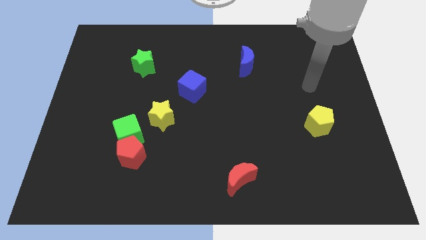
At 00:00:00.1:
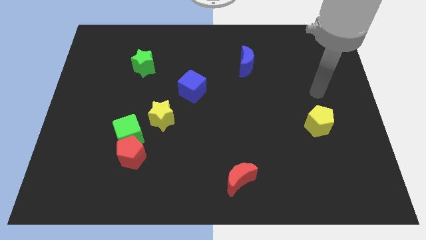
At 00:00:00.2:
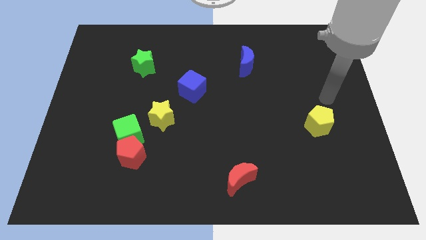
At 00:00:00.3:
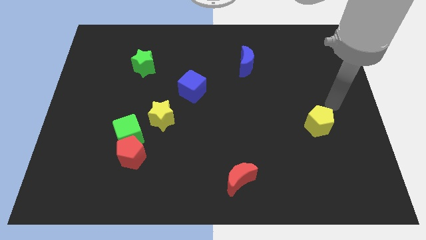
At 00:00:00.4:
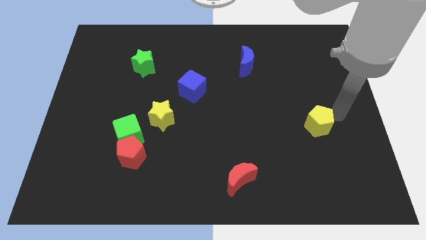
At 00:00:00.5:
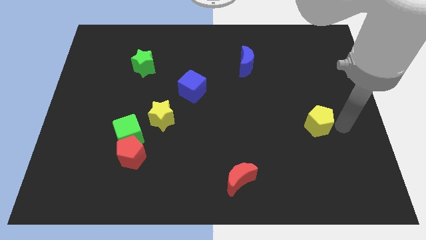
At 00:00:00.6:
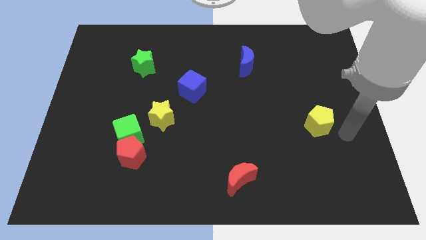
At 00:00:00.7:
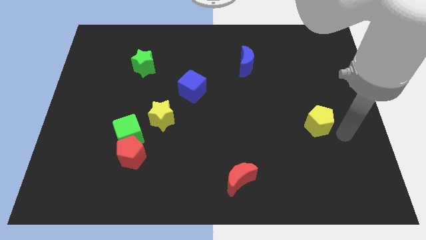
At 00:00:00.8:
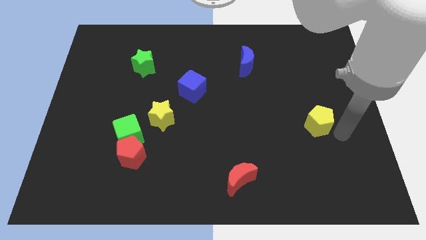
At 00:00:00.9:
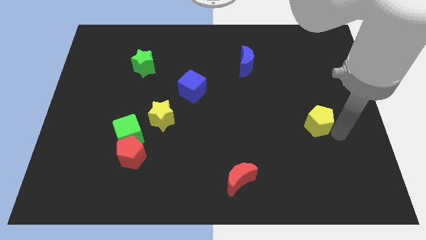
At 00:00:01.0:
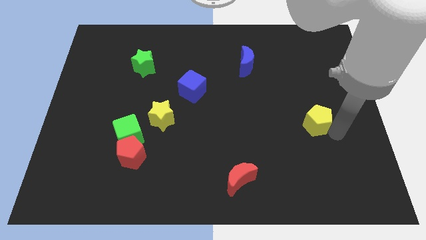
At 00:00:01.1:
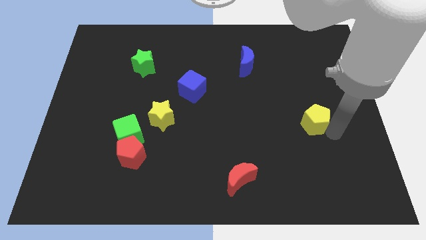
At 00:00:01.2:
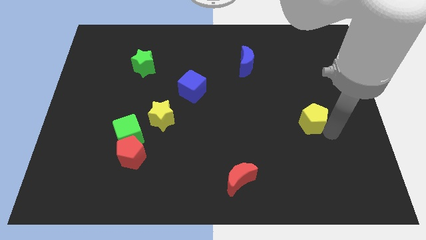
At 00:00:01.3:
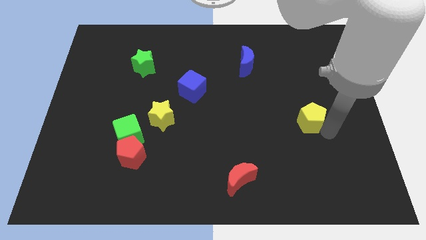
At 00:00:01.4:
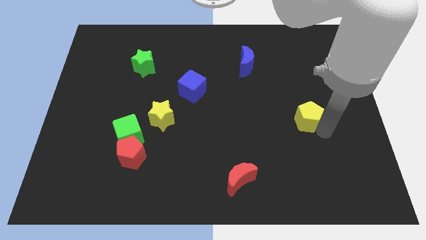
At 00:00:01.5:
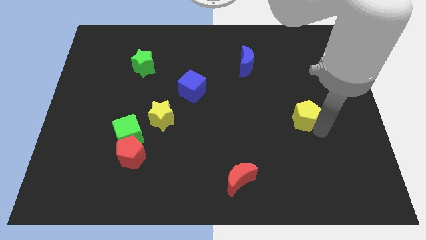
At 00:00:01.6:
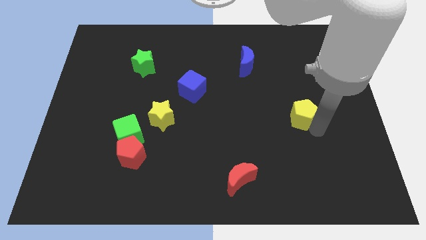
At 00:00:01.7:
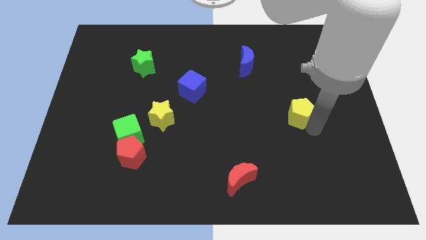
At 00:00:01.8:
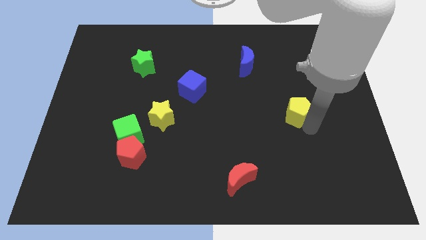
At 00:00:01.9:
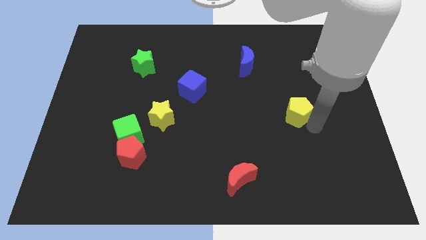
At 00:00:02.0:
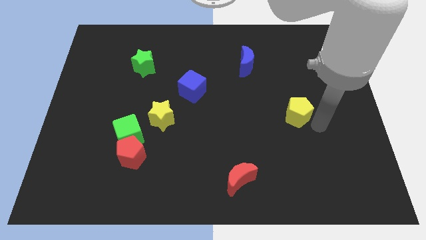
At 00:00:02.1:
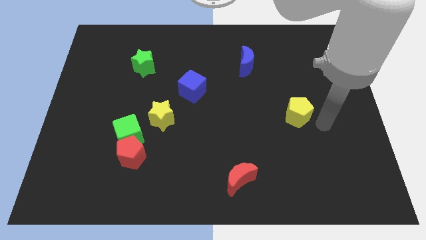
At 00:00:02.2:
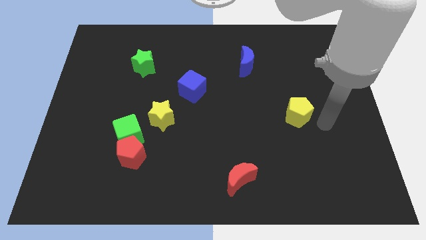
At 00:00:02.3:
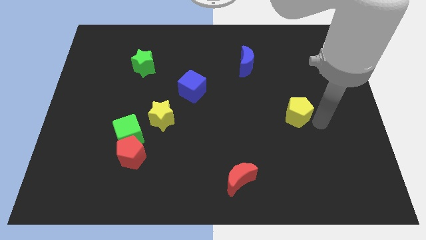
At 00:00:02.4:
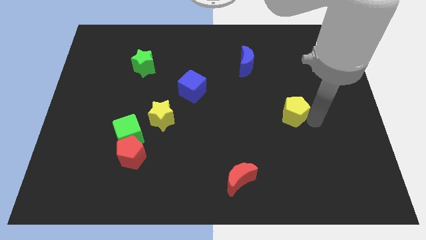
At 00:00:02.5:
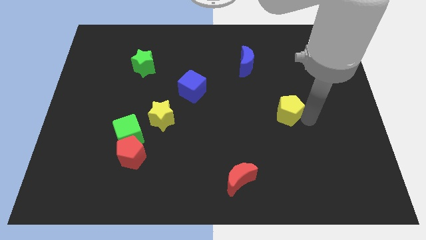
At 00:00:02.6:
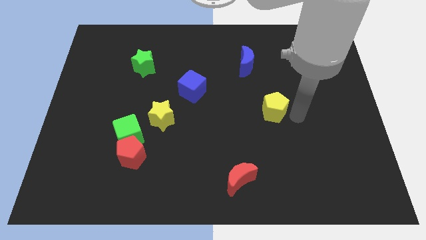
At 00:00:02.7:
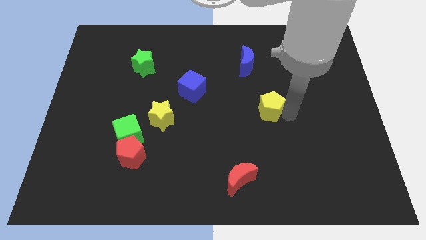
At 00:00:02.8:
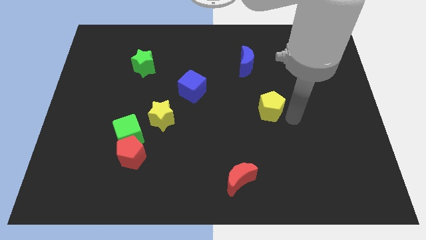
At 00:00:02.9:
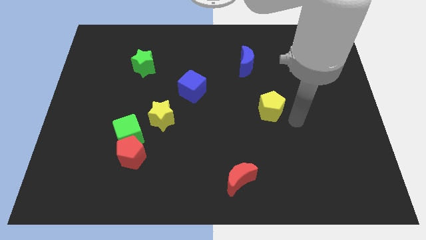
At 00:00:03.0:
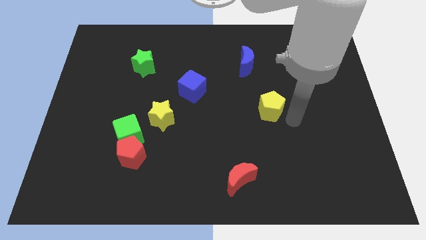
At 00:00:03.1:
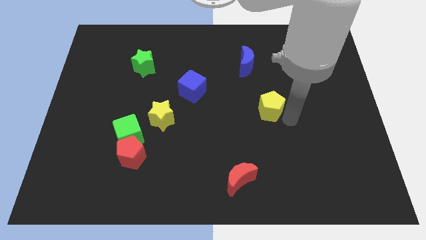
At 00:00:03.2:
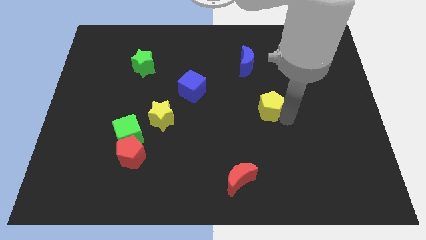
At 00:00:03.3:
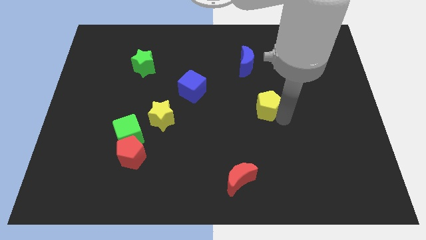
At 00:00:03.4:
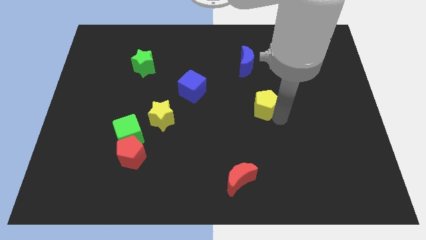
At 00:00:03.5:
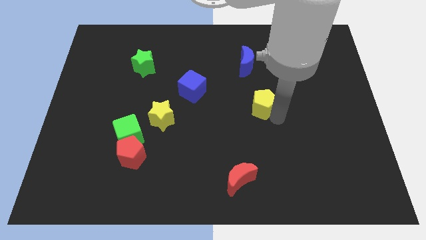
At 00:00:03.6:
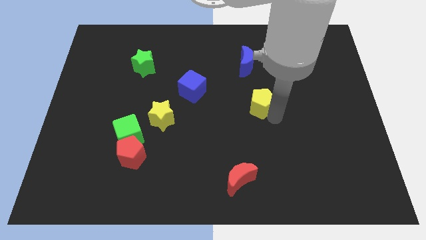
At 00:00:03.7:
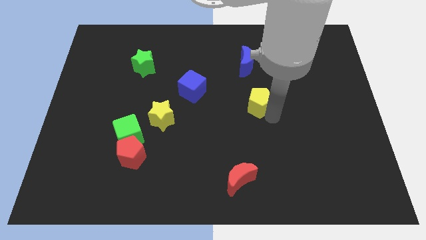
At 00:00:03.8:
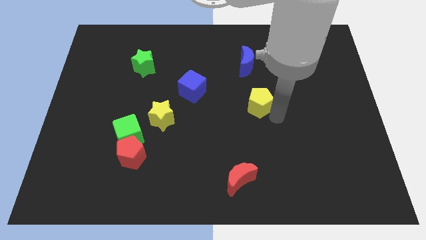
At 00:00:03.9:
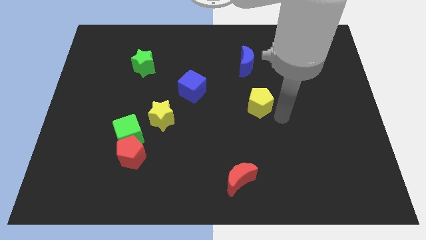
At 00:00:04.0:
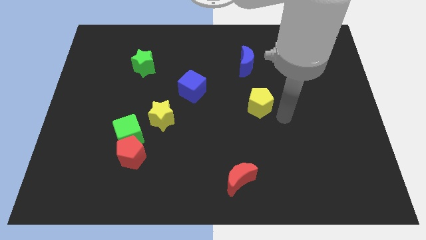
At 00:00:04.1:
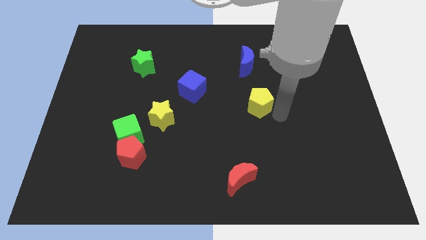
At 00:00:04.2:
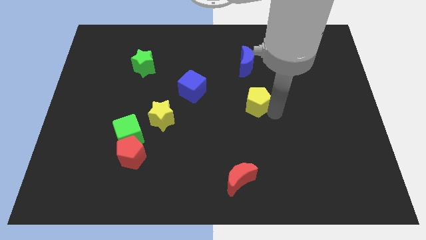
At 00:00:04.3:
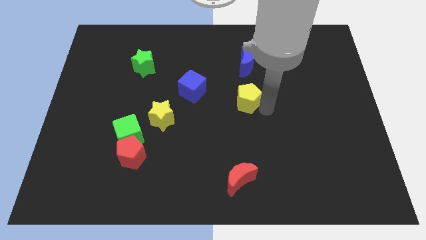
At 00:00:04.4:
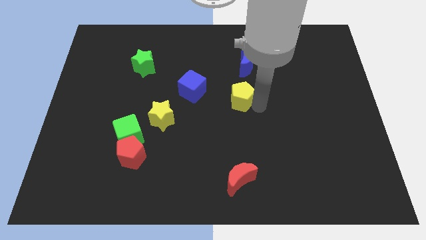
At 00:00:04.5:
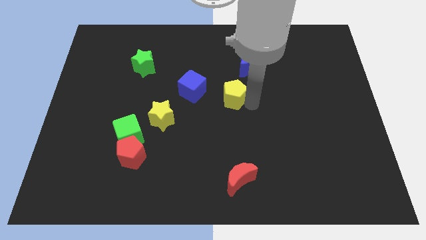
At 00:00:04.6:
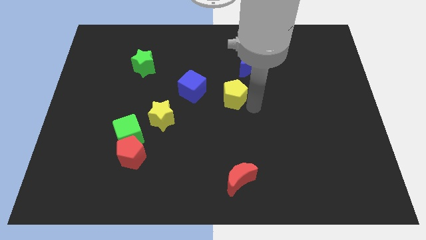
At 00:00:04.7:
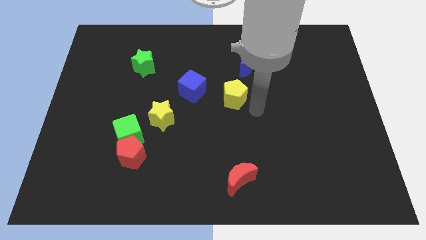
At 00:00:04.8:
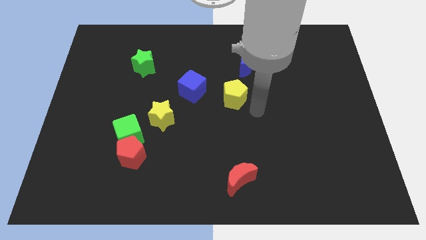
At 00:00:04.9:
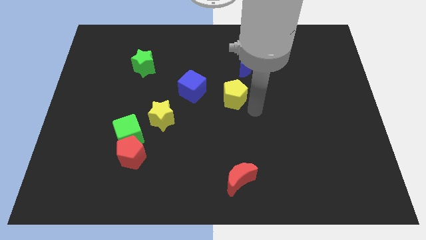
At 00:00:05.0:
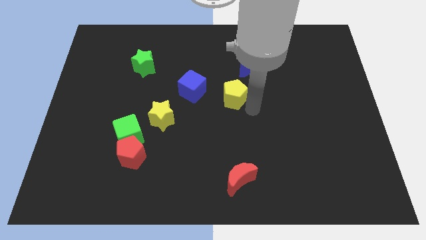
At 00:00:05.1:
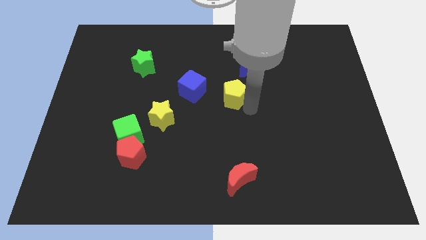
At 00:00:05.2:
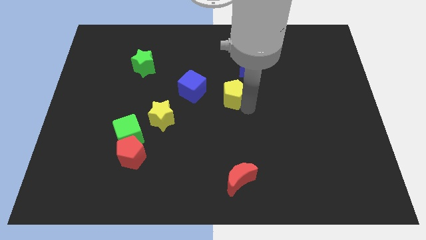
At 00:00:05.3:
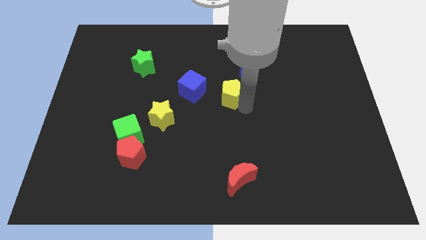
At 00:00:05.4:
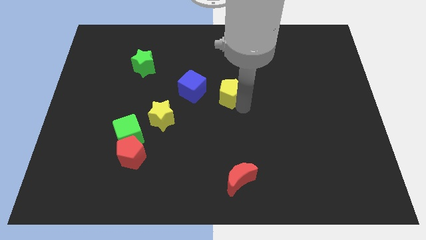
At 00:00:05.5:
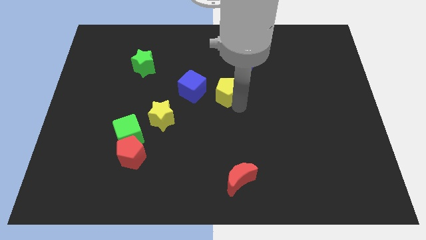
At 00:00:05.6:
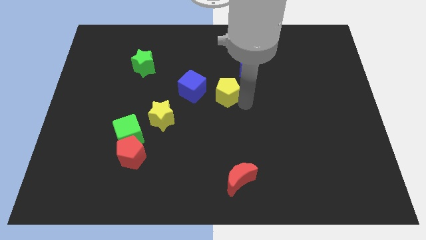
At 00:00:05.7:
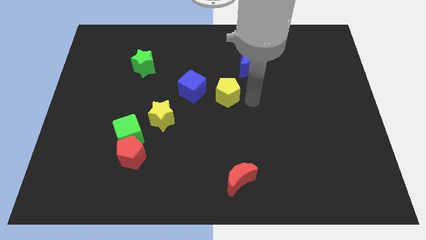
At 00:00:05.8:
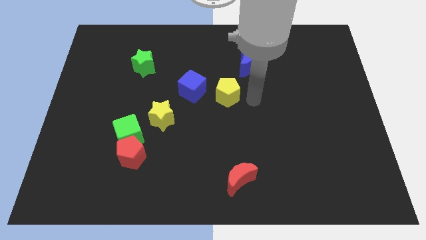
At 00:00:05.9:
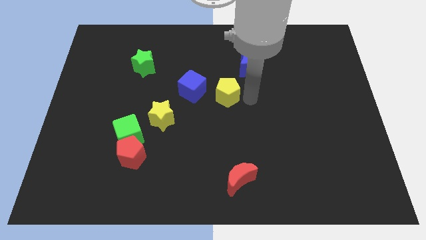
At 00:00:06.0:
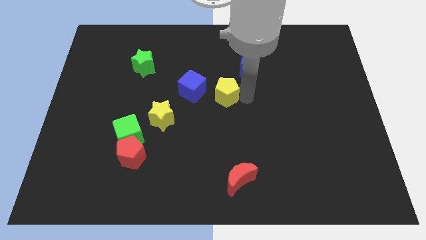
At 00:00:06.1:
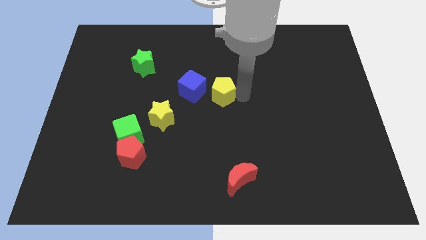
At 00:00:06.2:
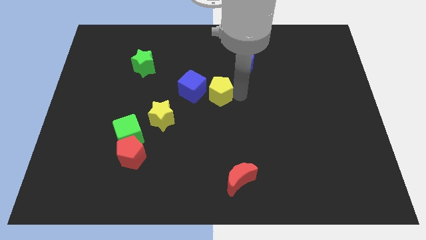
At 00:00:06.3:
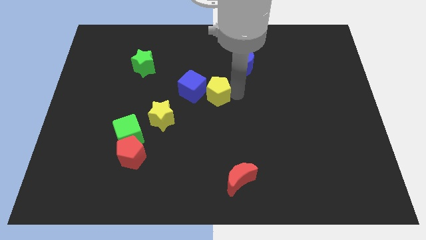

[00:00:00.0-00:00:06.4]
slide the yellow pentagon to the blue cube

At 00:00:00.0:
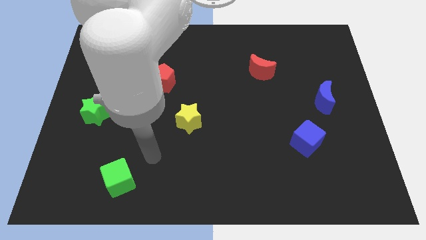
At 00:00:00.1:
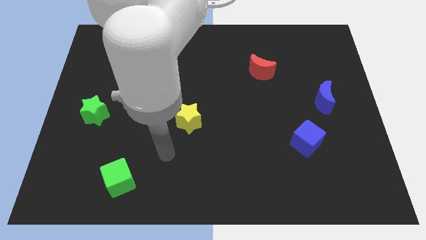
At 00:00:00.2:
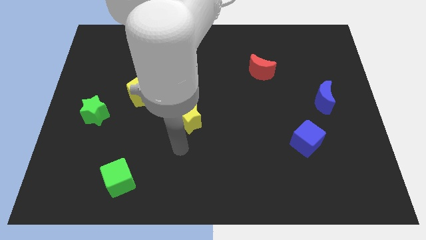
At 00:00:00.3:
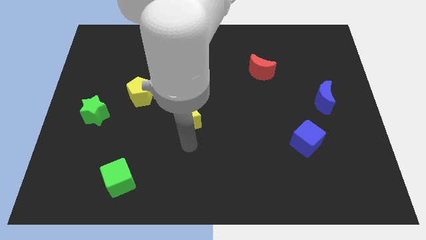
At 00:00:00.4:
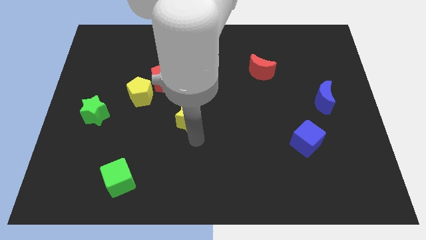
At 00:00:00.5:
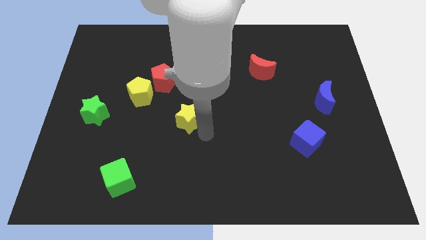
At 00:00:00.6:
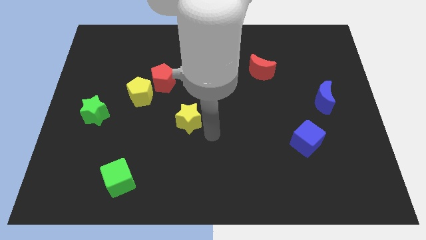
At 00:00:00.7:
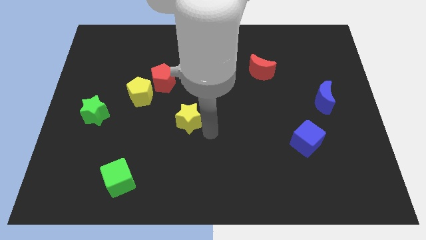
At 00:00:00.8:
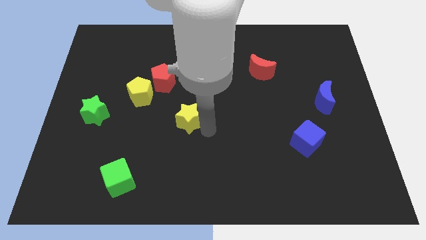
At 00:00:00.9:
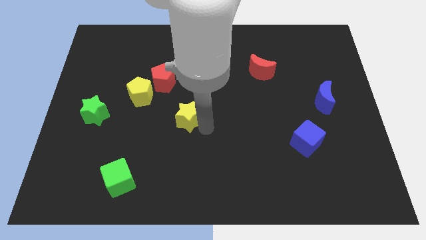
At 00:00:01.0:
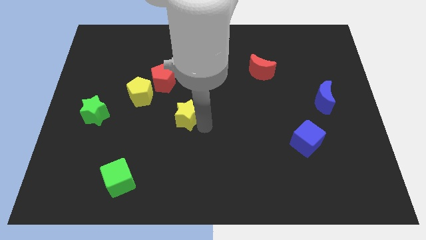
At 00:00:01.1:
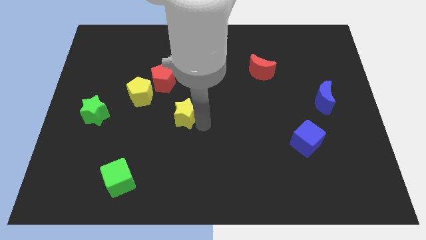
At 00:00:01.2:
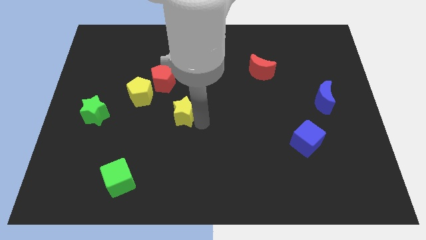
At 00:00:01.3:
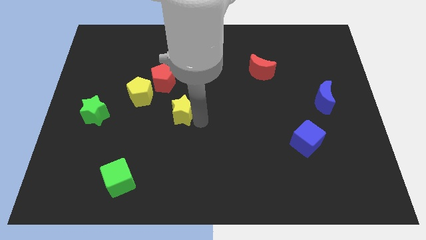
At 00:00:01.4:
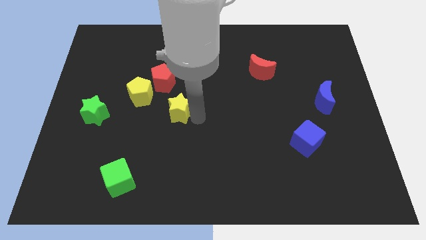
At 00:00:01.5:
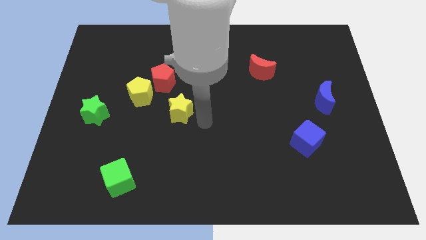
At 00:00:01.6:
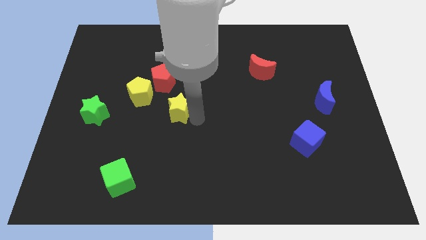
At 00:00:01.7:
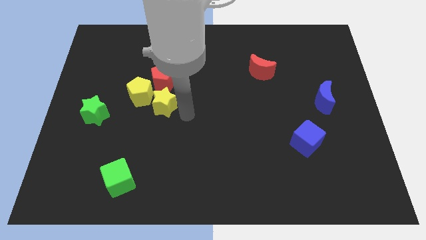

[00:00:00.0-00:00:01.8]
put the yellow star next to the yellow pentagon
